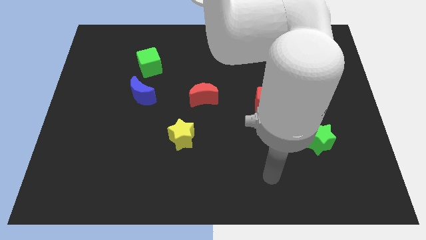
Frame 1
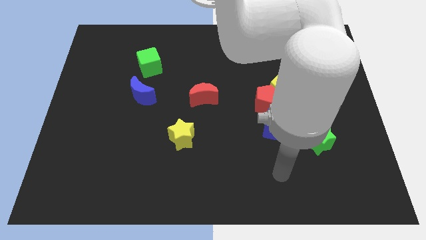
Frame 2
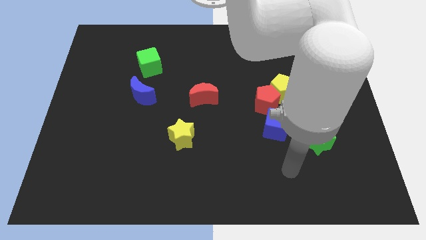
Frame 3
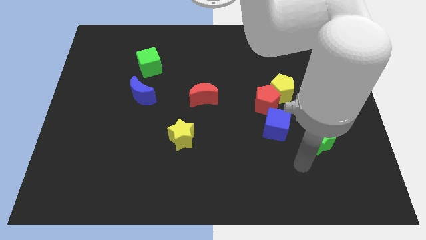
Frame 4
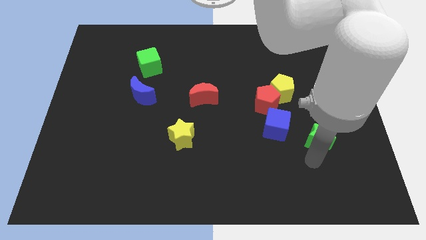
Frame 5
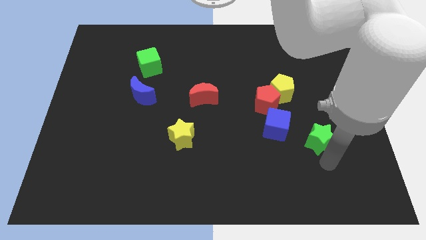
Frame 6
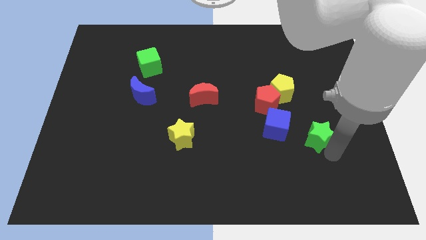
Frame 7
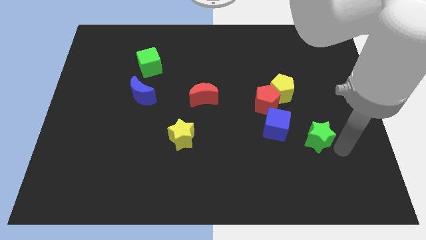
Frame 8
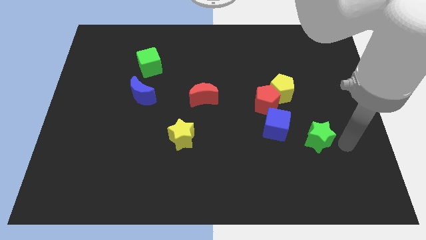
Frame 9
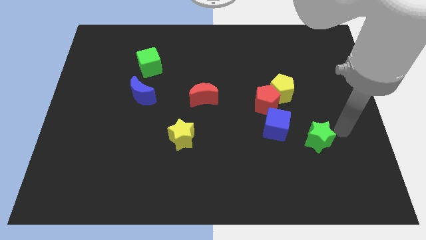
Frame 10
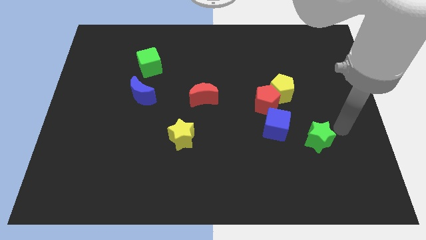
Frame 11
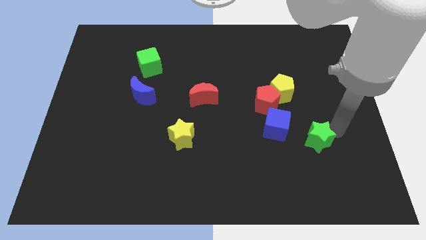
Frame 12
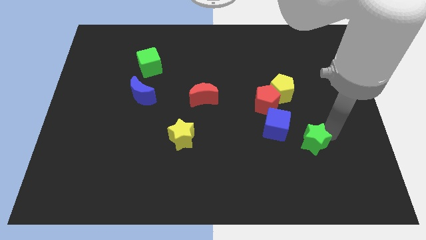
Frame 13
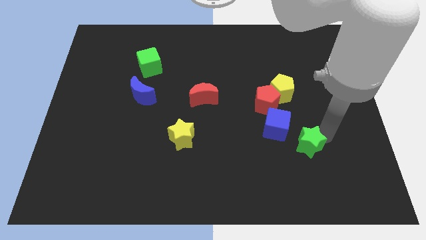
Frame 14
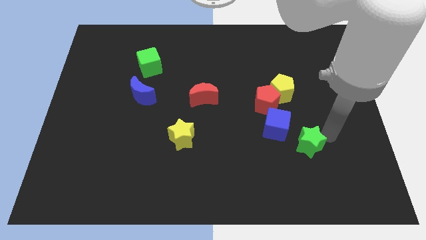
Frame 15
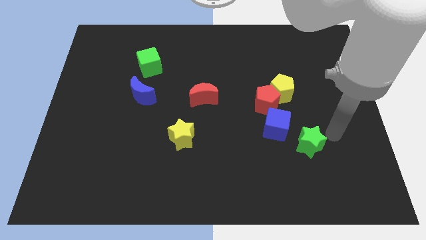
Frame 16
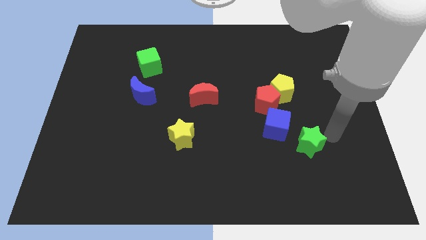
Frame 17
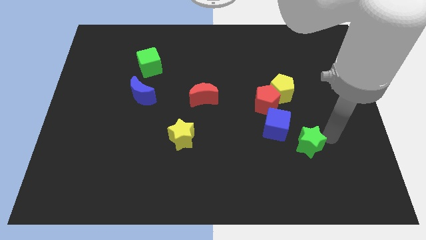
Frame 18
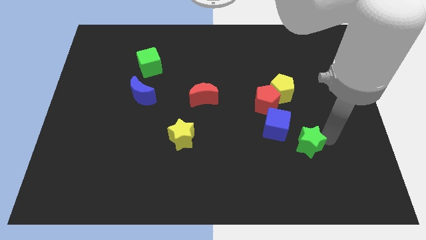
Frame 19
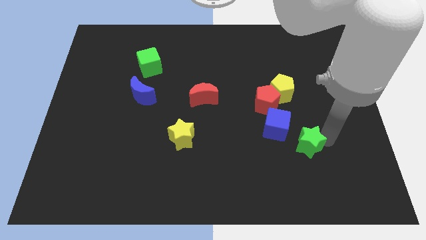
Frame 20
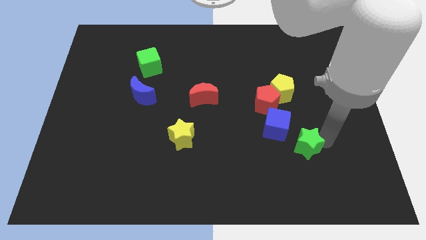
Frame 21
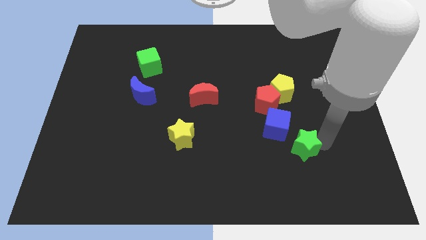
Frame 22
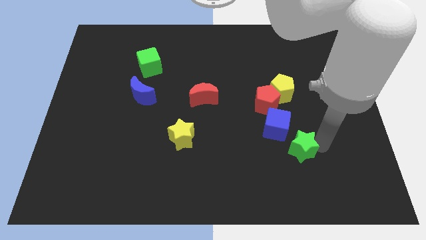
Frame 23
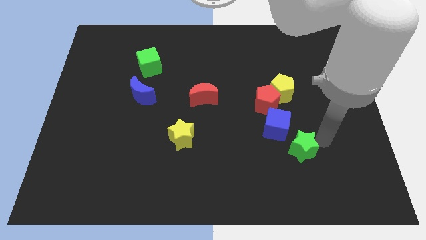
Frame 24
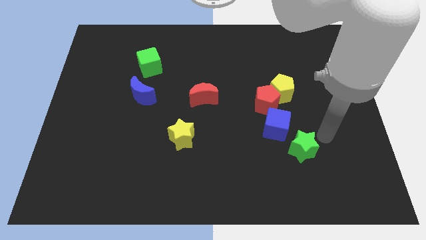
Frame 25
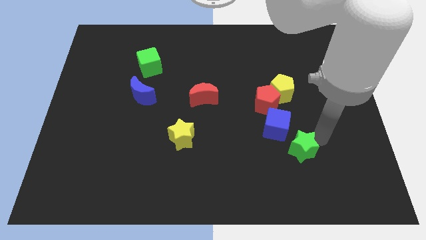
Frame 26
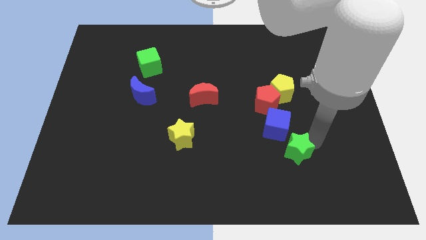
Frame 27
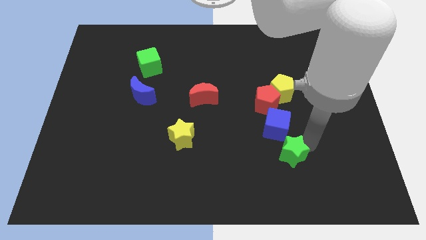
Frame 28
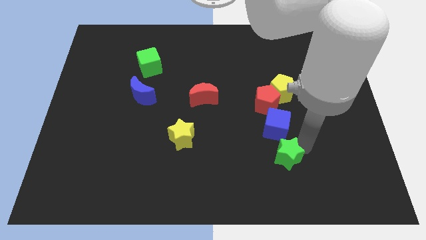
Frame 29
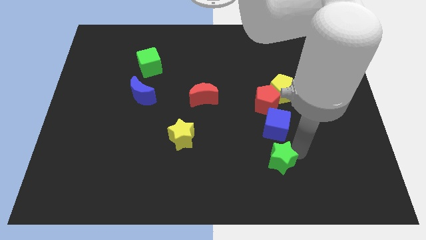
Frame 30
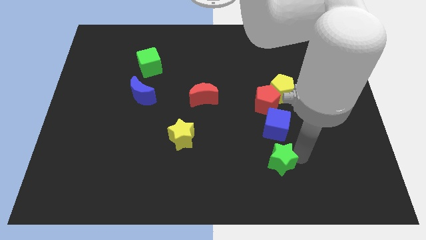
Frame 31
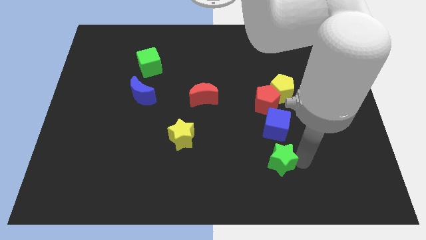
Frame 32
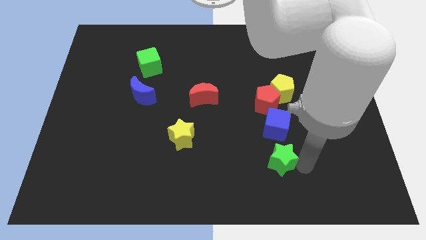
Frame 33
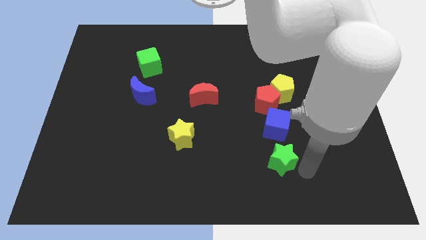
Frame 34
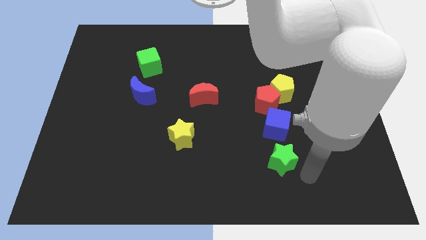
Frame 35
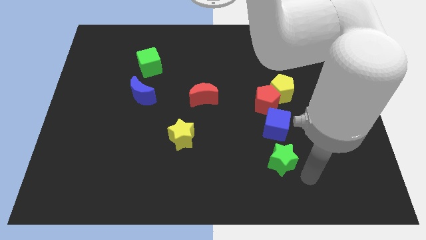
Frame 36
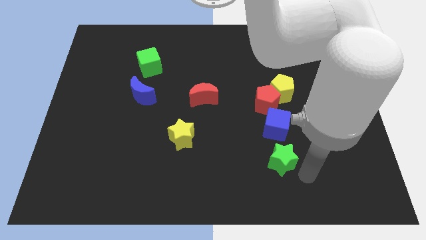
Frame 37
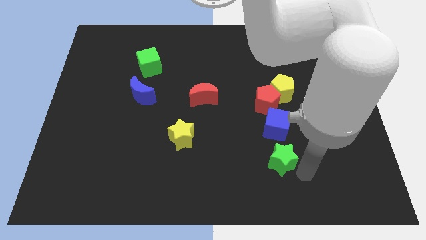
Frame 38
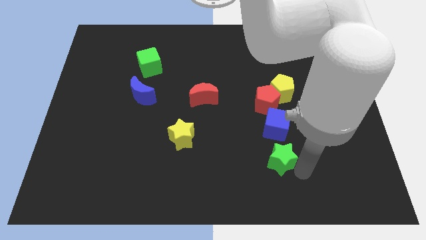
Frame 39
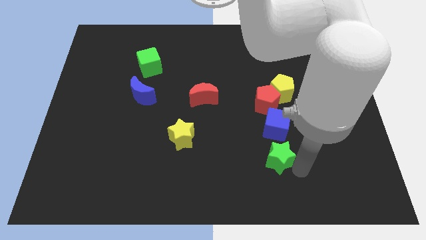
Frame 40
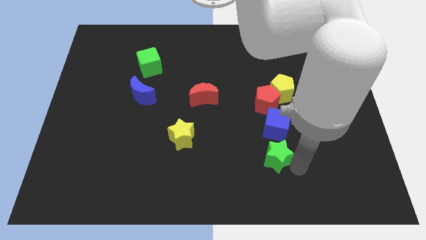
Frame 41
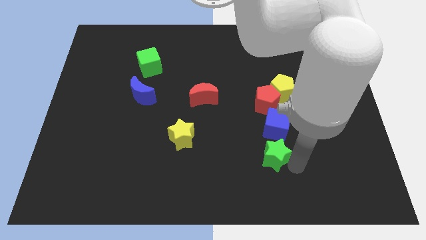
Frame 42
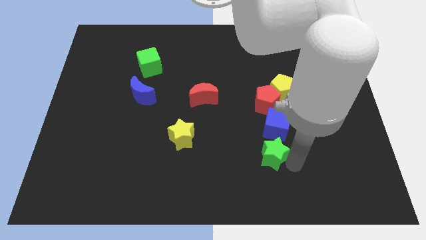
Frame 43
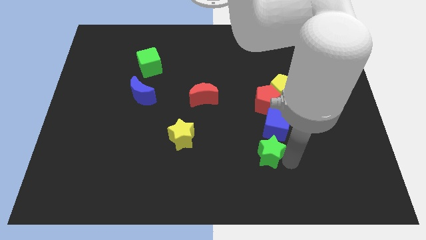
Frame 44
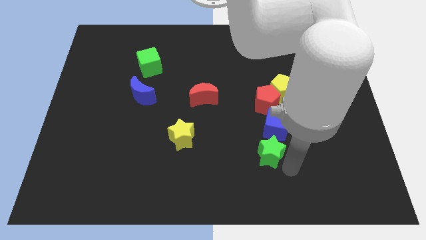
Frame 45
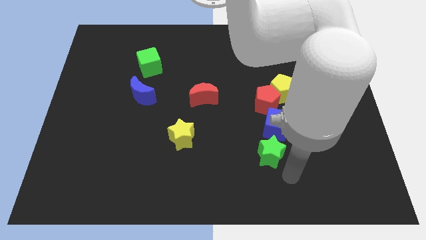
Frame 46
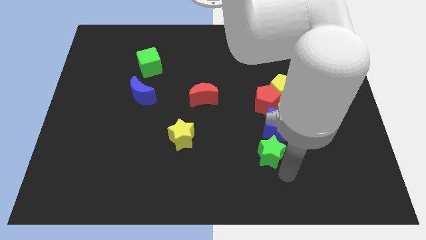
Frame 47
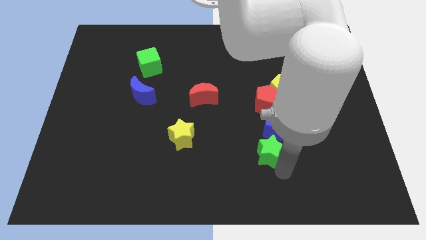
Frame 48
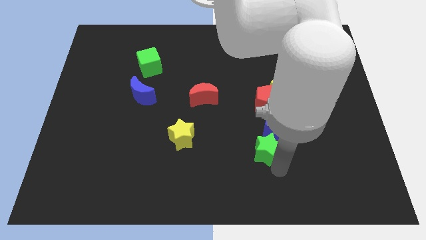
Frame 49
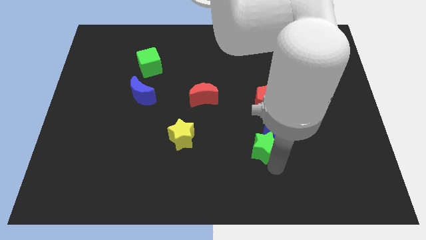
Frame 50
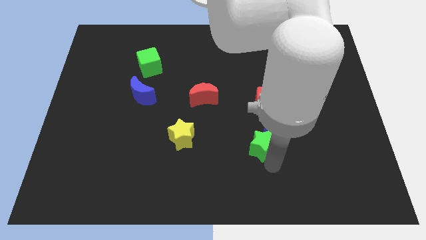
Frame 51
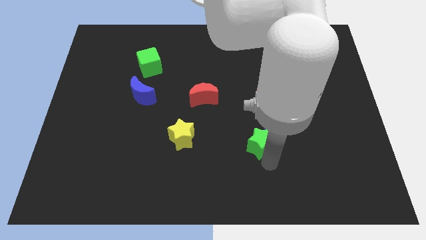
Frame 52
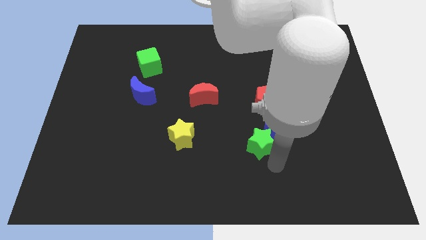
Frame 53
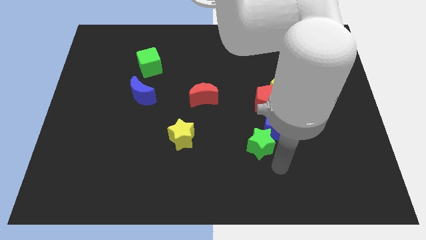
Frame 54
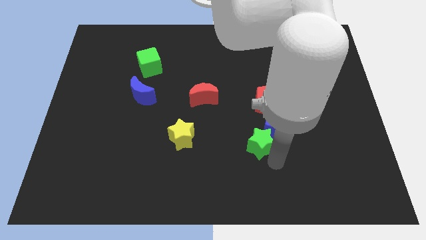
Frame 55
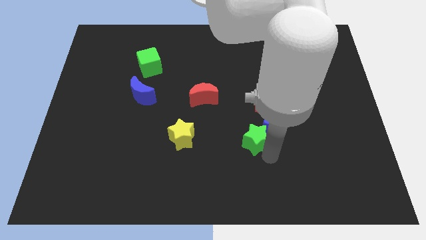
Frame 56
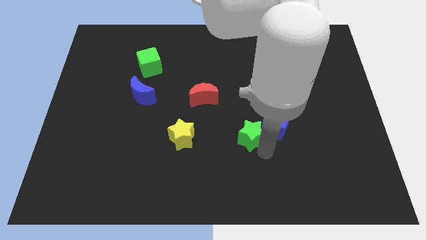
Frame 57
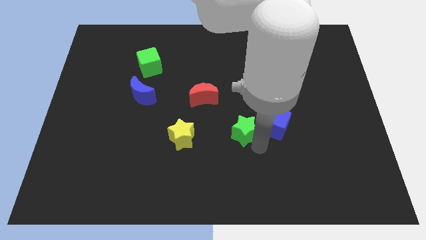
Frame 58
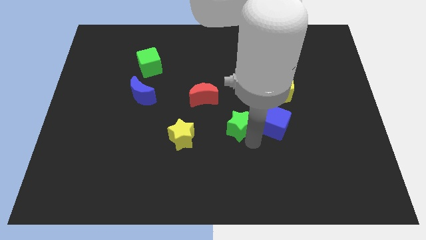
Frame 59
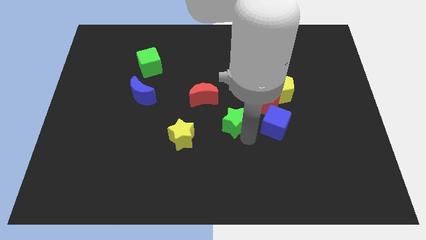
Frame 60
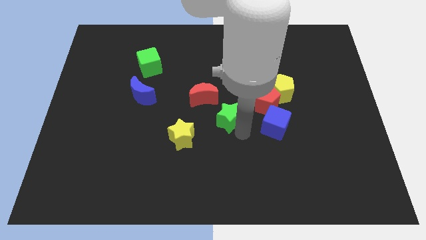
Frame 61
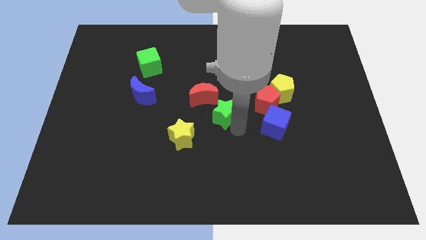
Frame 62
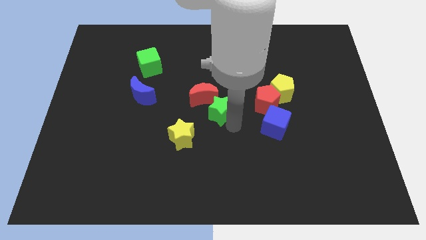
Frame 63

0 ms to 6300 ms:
move the green star to the red moon

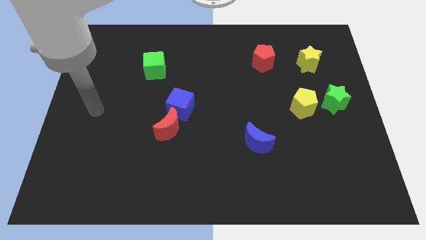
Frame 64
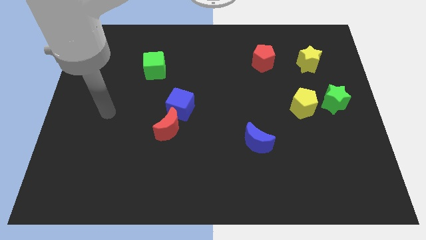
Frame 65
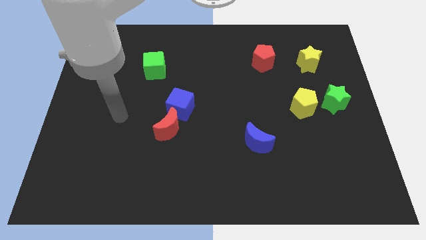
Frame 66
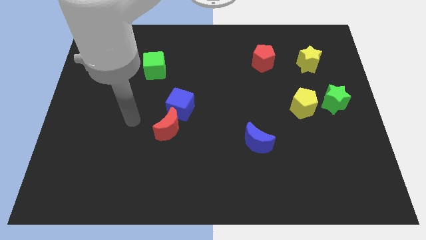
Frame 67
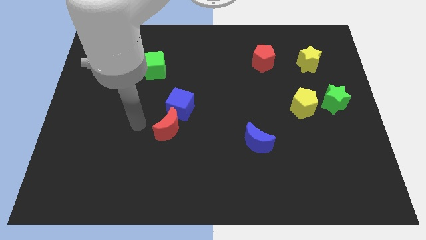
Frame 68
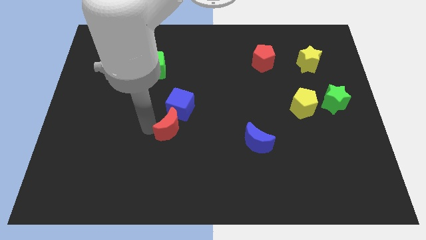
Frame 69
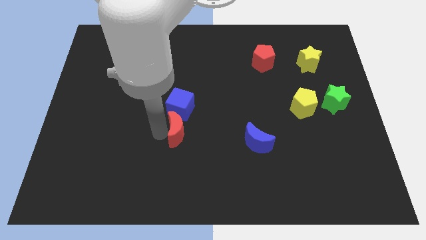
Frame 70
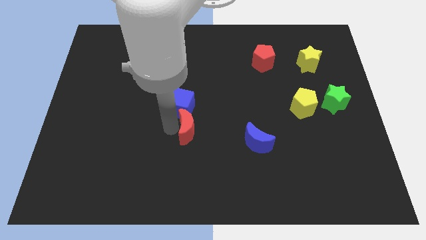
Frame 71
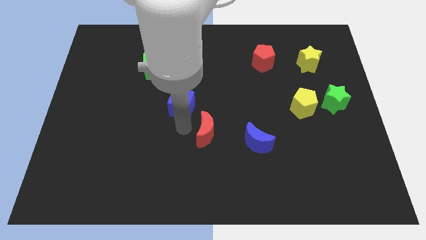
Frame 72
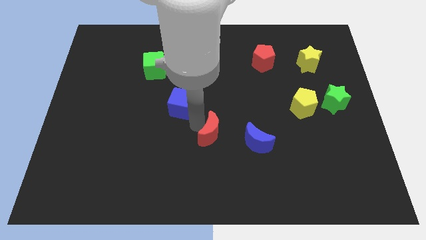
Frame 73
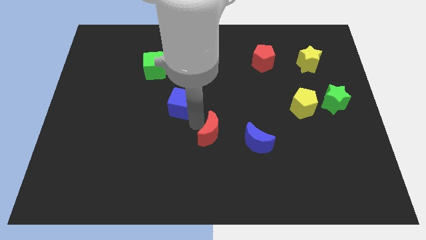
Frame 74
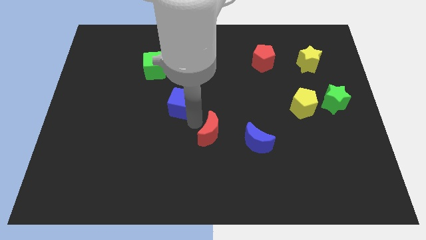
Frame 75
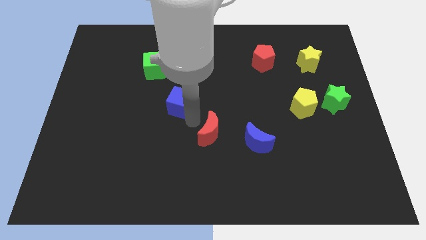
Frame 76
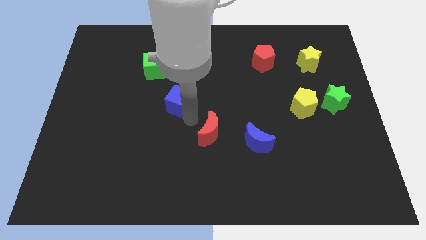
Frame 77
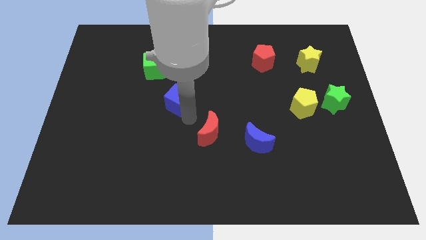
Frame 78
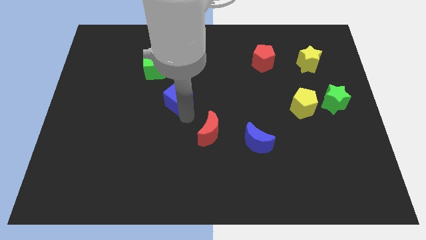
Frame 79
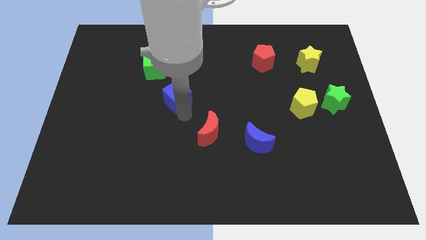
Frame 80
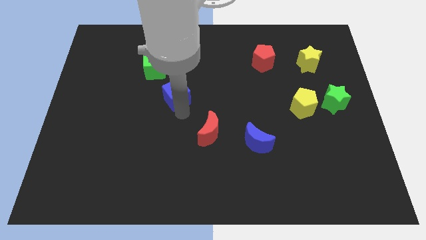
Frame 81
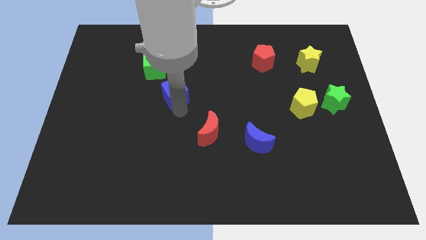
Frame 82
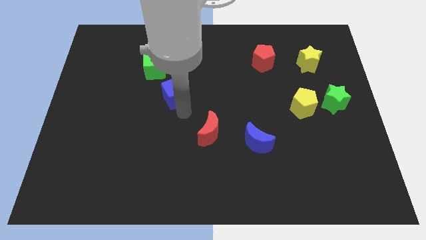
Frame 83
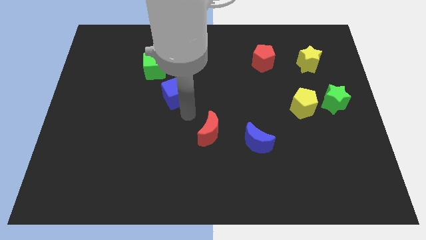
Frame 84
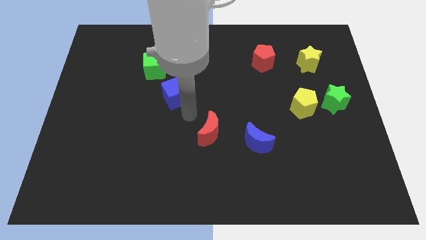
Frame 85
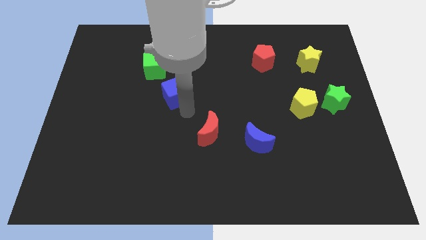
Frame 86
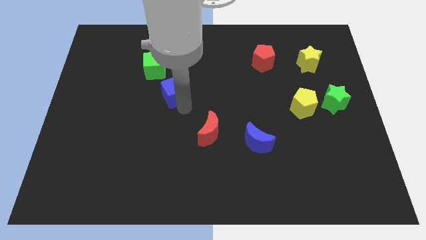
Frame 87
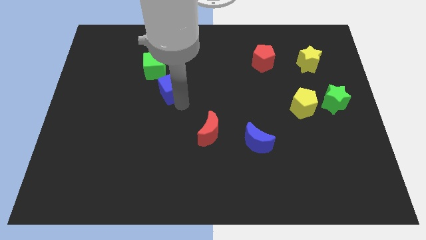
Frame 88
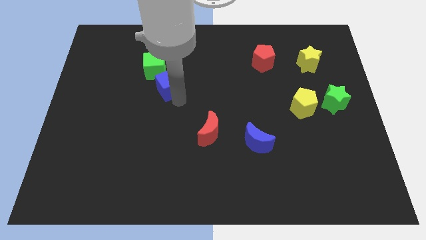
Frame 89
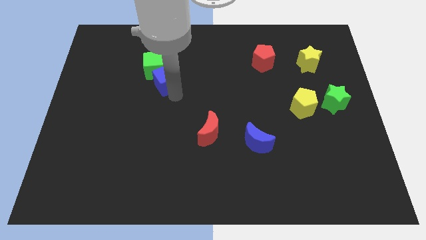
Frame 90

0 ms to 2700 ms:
put the blue cube to the green cube
